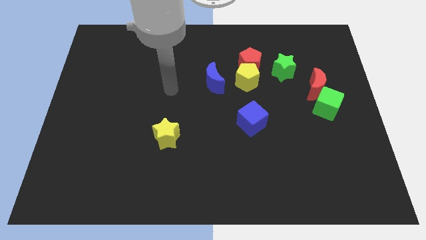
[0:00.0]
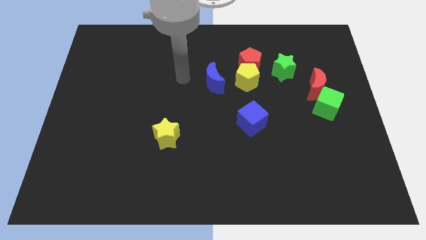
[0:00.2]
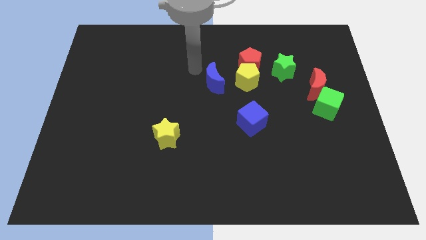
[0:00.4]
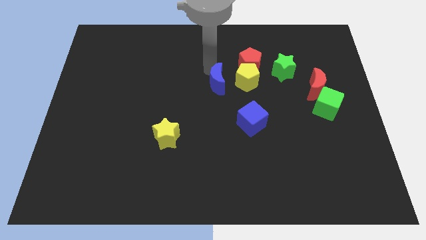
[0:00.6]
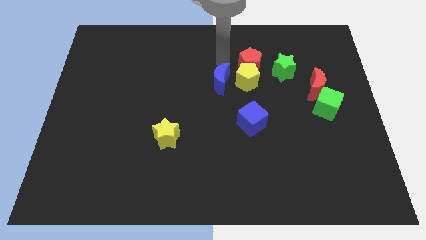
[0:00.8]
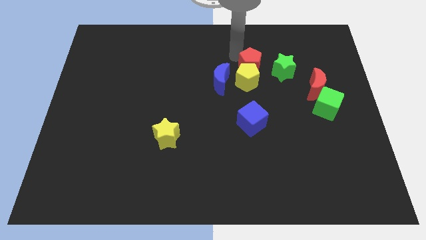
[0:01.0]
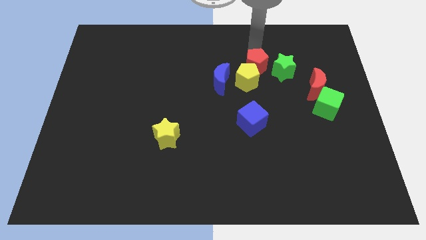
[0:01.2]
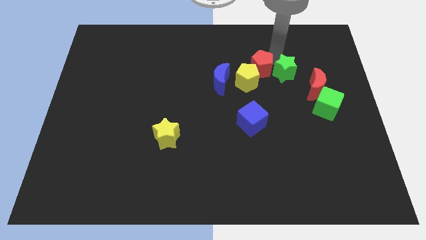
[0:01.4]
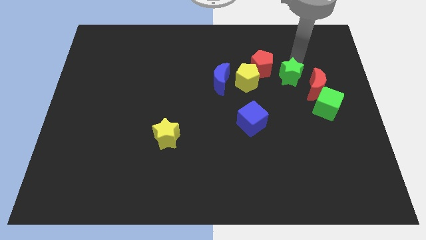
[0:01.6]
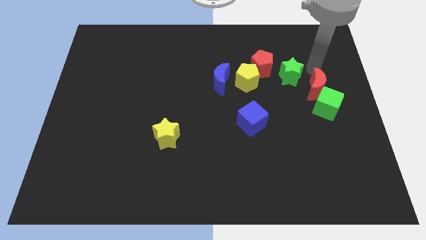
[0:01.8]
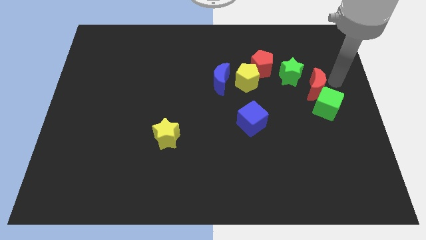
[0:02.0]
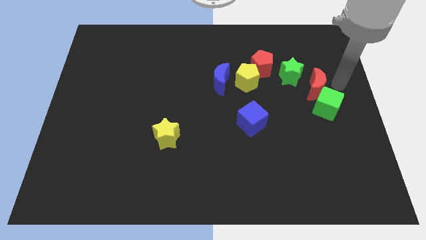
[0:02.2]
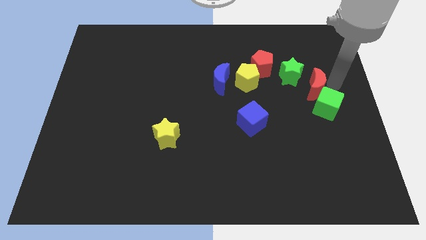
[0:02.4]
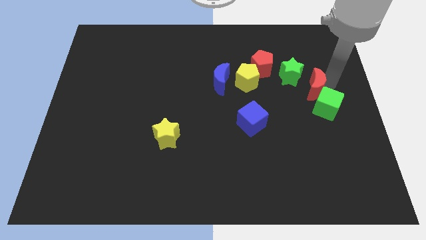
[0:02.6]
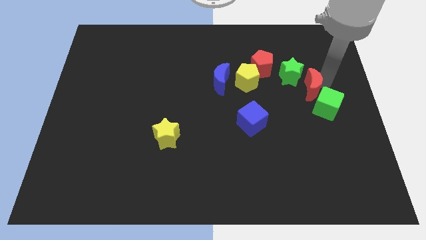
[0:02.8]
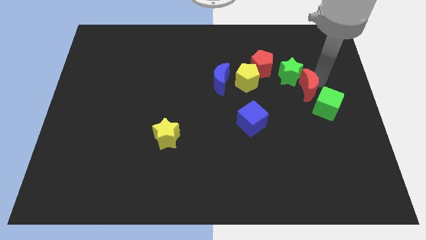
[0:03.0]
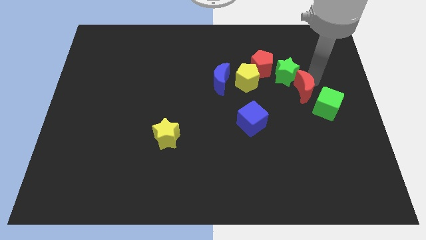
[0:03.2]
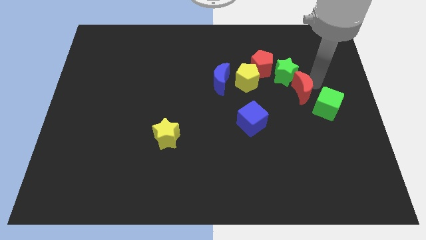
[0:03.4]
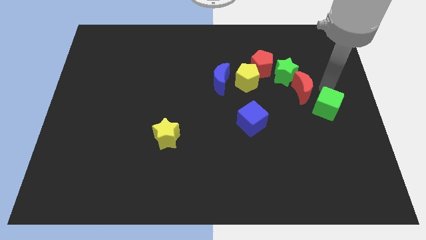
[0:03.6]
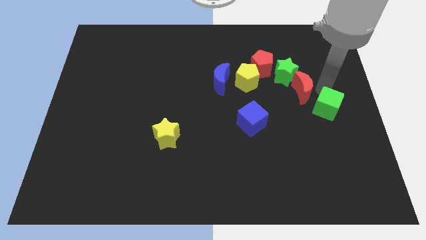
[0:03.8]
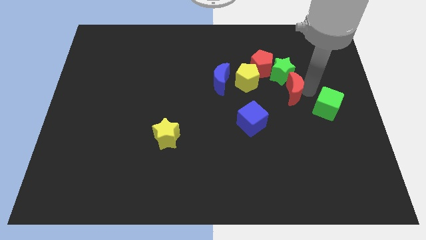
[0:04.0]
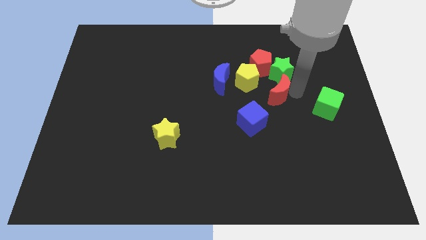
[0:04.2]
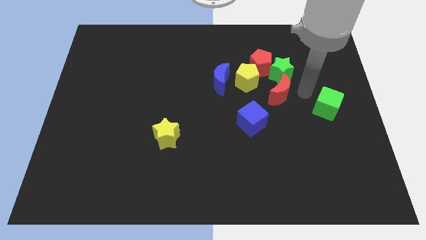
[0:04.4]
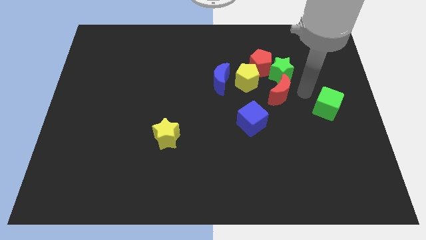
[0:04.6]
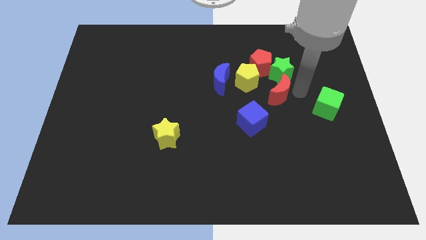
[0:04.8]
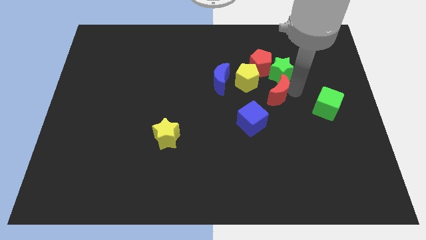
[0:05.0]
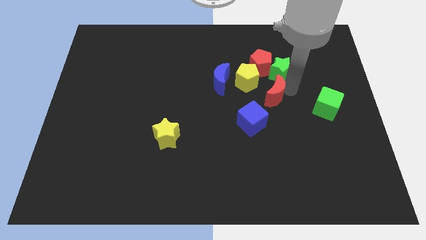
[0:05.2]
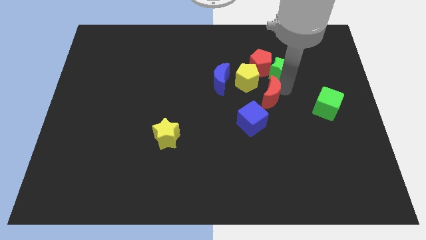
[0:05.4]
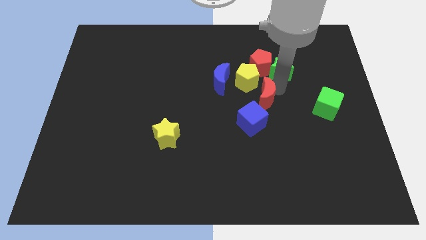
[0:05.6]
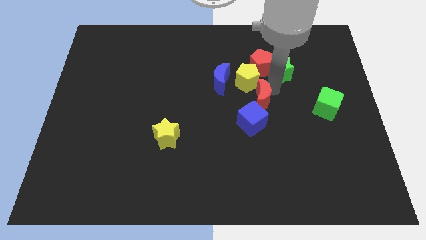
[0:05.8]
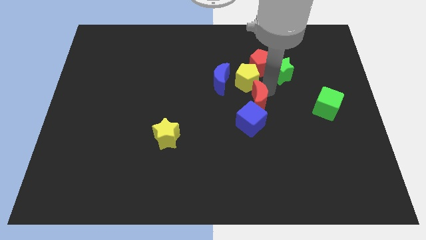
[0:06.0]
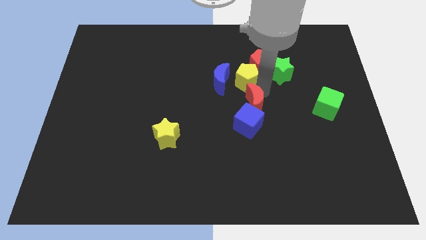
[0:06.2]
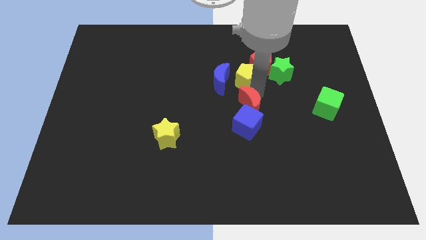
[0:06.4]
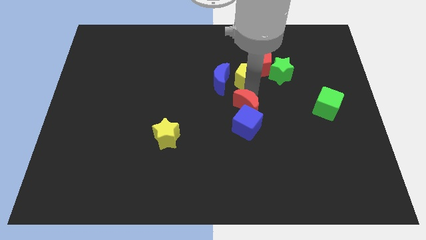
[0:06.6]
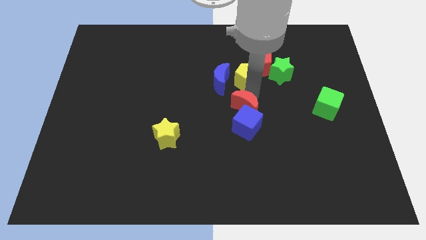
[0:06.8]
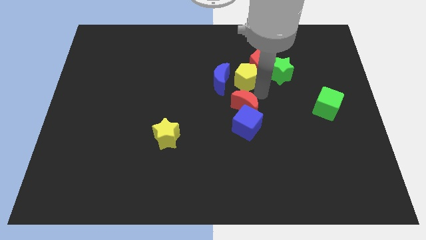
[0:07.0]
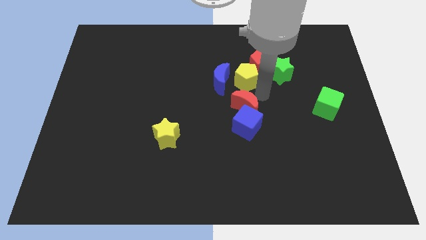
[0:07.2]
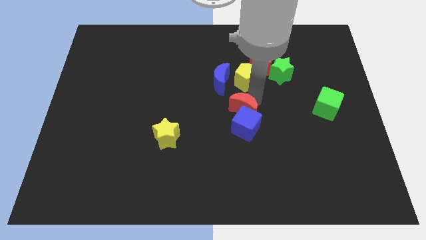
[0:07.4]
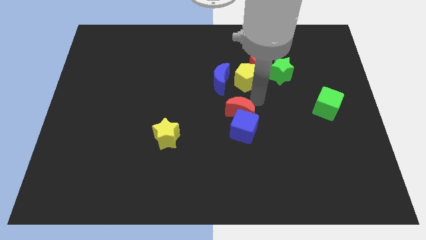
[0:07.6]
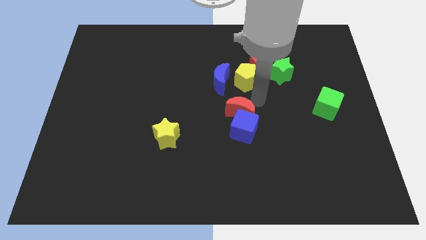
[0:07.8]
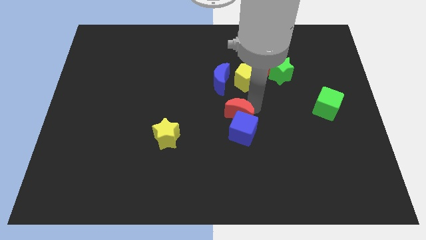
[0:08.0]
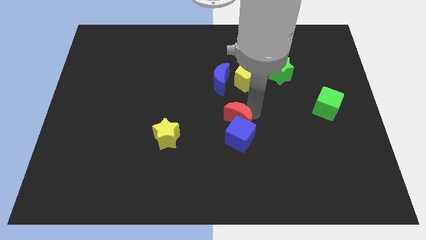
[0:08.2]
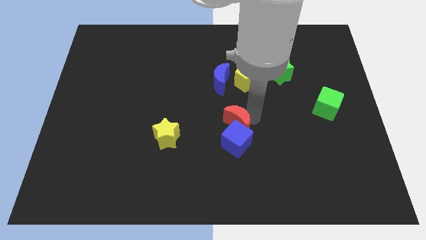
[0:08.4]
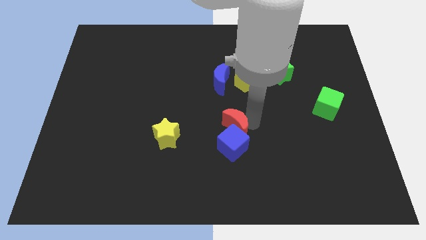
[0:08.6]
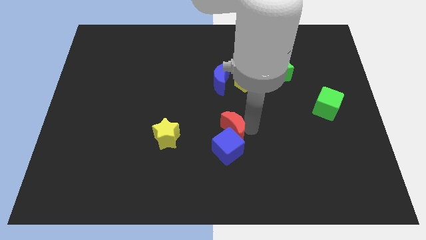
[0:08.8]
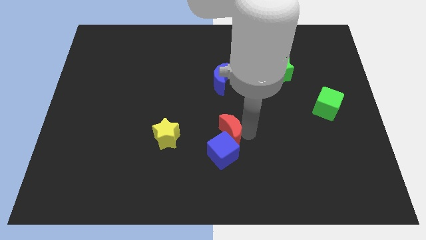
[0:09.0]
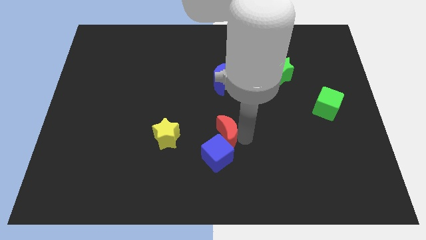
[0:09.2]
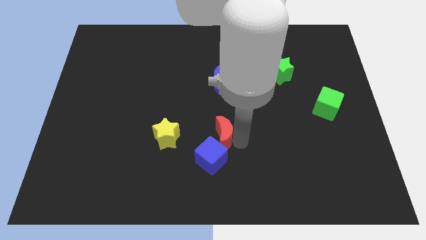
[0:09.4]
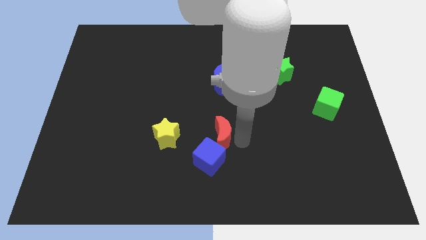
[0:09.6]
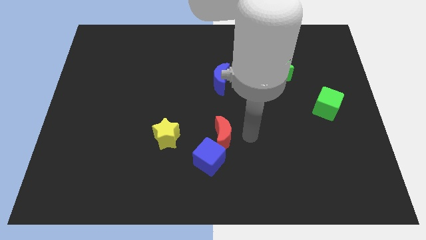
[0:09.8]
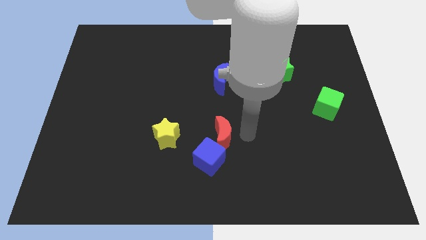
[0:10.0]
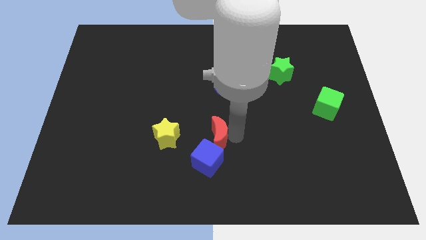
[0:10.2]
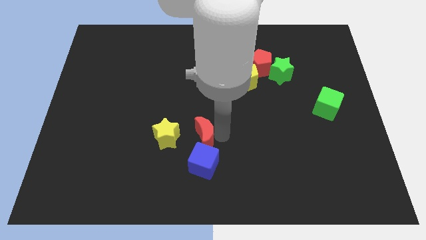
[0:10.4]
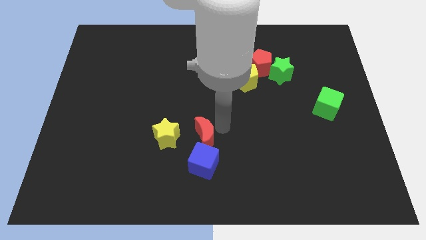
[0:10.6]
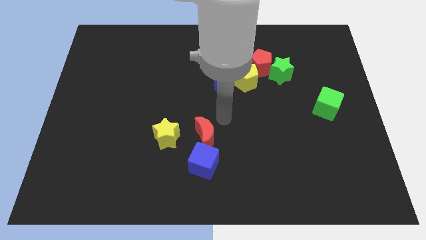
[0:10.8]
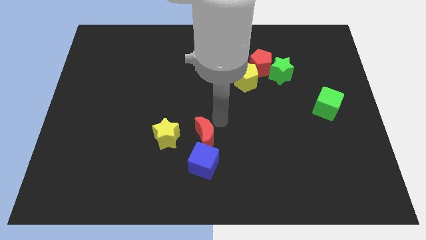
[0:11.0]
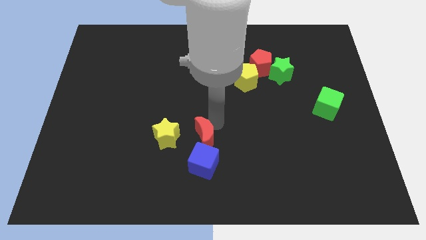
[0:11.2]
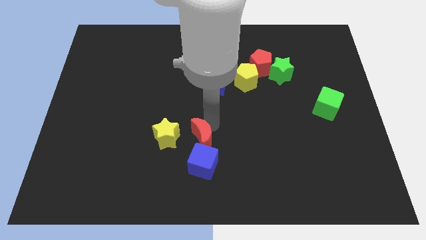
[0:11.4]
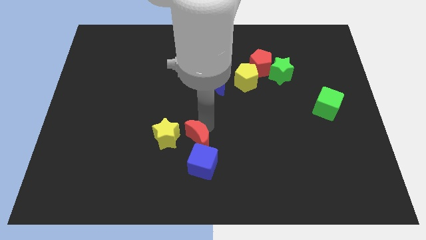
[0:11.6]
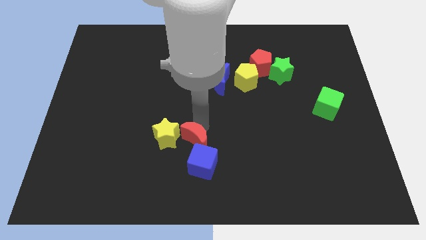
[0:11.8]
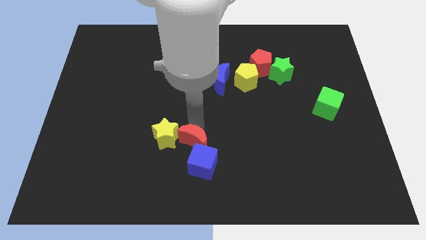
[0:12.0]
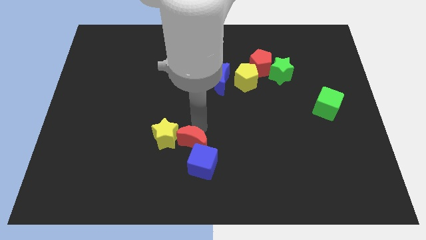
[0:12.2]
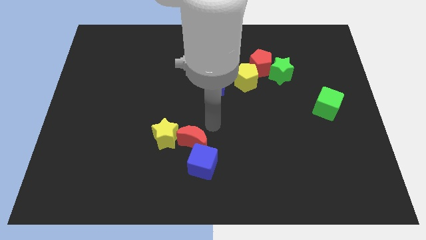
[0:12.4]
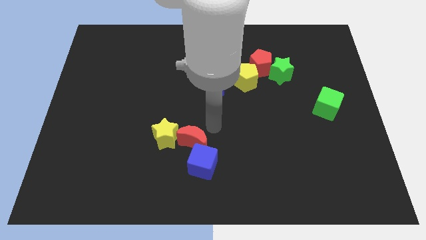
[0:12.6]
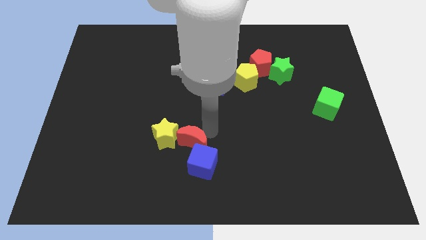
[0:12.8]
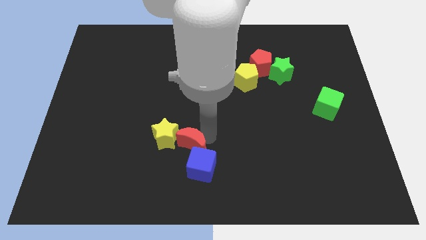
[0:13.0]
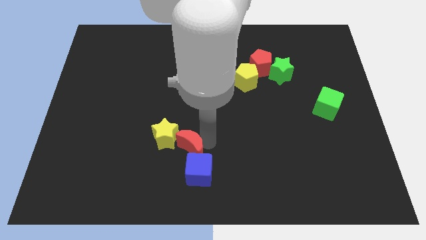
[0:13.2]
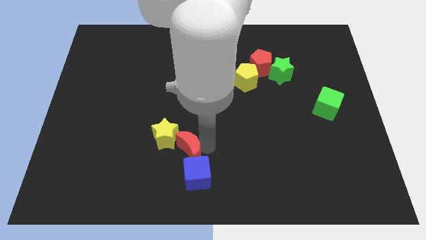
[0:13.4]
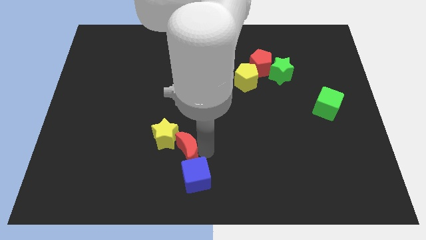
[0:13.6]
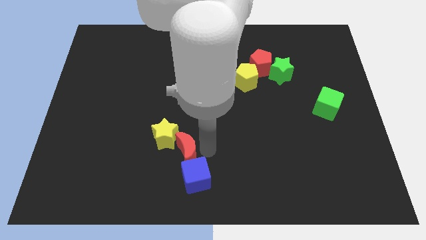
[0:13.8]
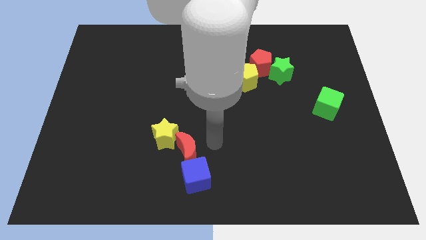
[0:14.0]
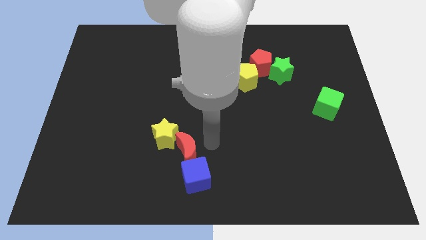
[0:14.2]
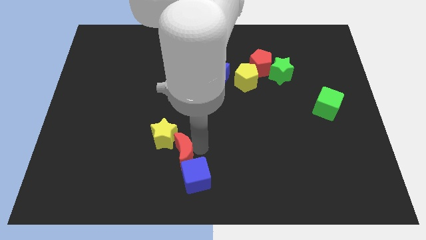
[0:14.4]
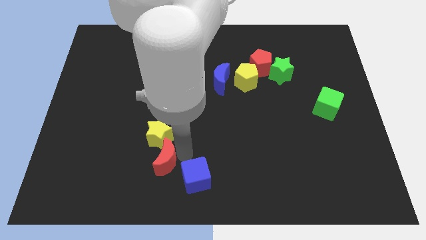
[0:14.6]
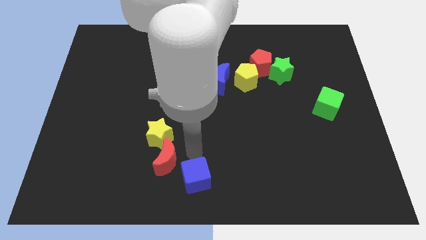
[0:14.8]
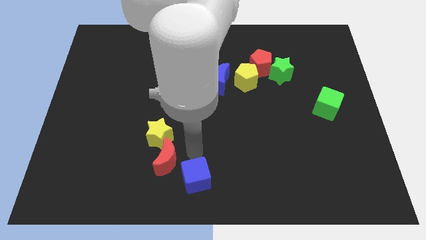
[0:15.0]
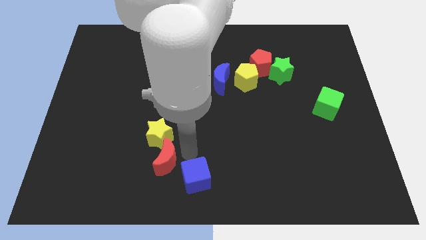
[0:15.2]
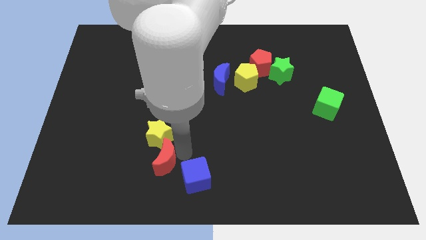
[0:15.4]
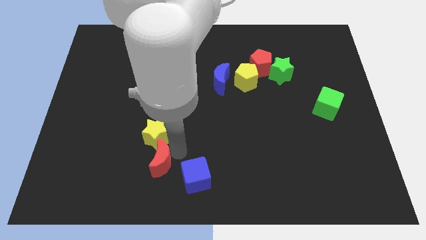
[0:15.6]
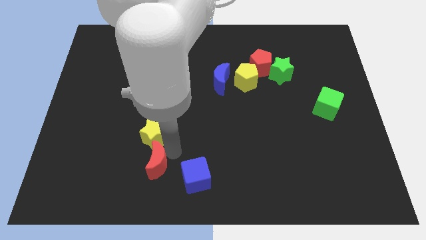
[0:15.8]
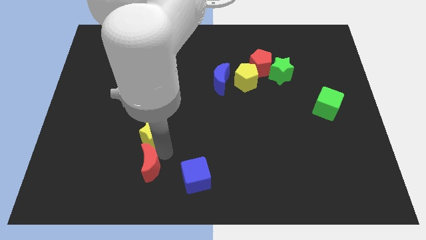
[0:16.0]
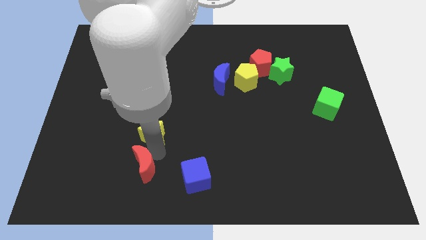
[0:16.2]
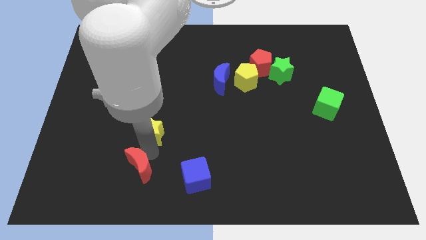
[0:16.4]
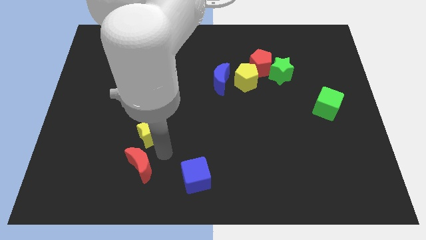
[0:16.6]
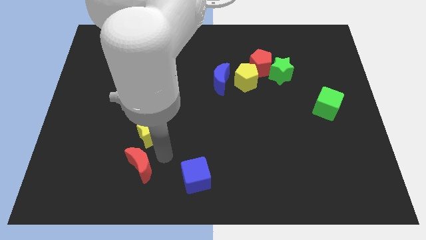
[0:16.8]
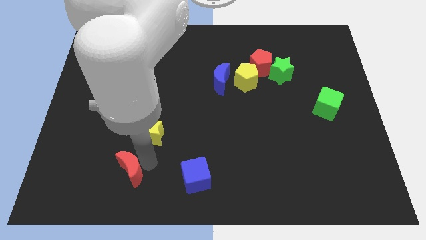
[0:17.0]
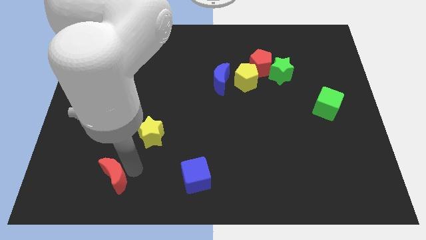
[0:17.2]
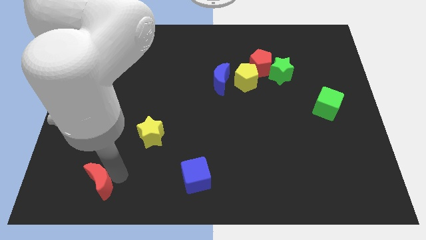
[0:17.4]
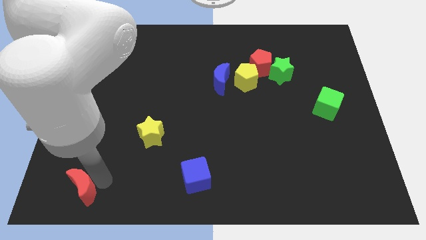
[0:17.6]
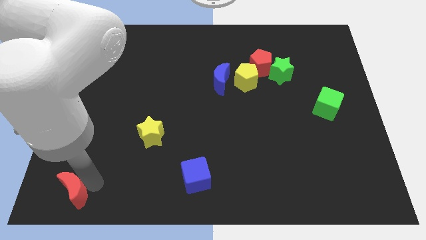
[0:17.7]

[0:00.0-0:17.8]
push the red moon to the bottom left corner
